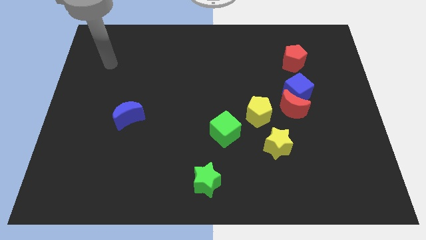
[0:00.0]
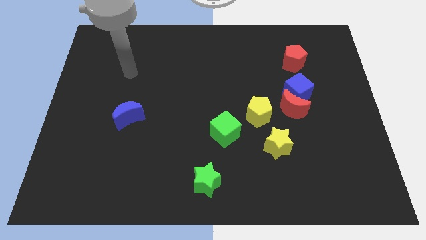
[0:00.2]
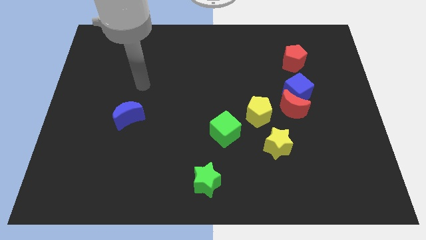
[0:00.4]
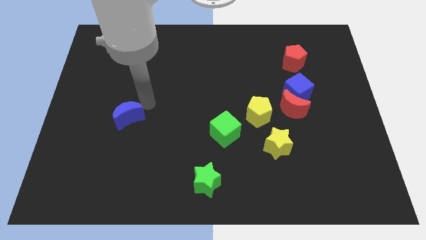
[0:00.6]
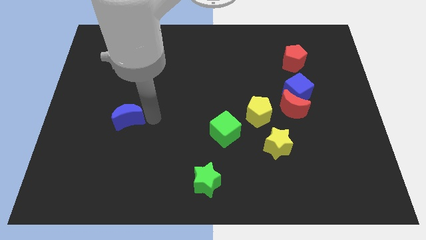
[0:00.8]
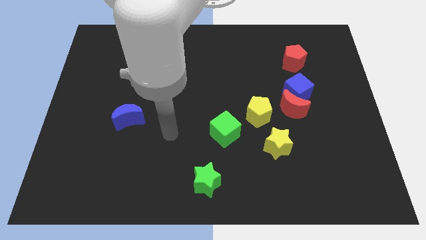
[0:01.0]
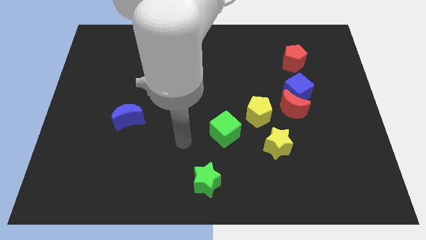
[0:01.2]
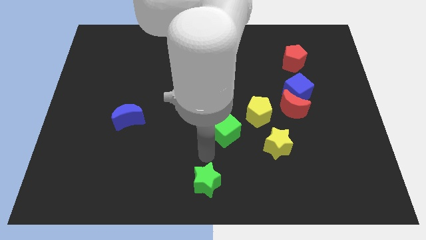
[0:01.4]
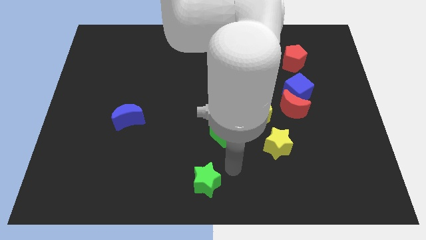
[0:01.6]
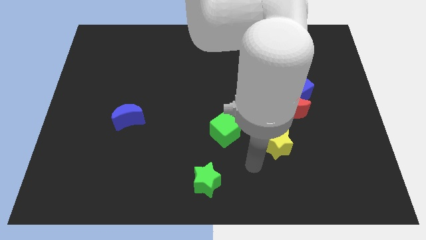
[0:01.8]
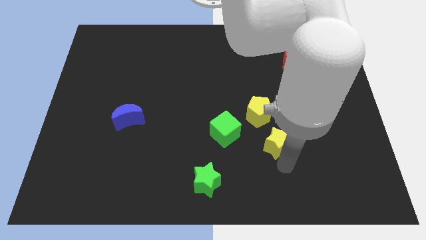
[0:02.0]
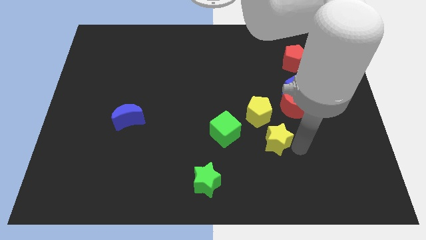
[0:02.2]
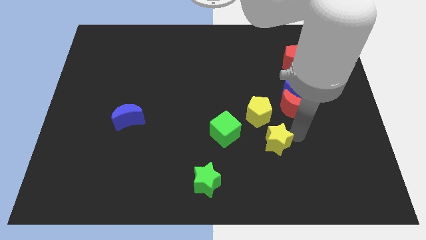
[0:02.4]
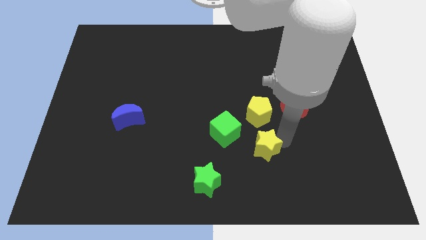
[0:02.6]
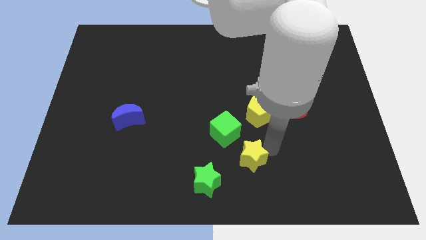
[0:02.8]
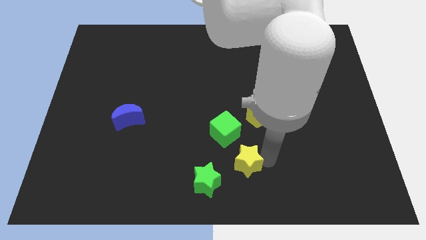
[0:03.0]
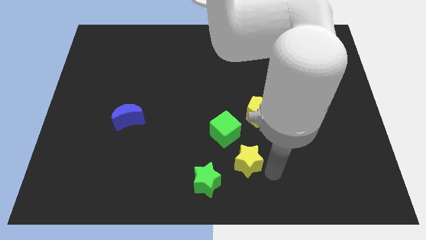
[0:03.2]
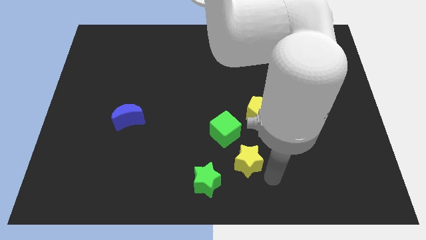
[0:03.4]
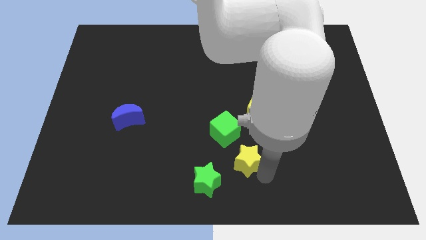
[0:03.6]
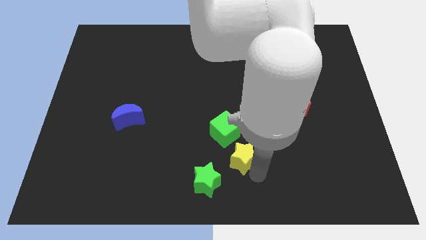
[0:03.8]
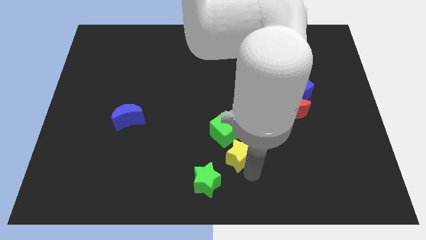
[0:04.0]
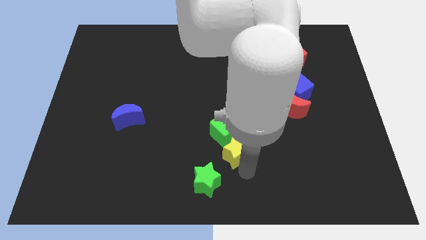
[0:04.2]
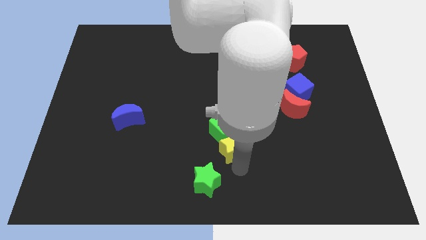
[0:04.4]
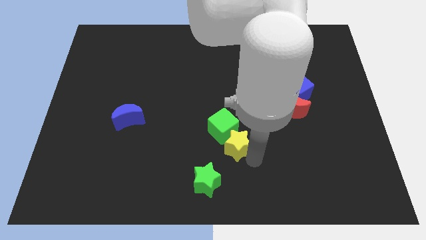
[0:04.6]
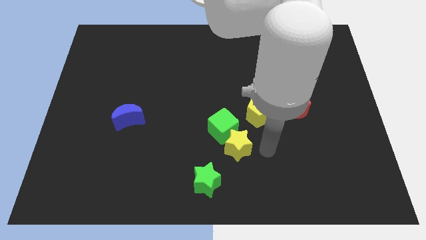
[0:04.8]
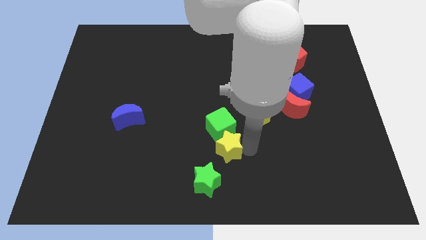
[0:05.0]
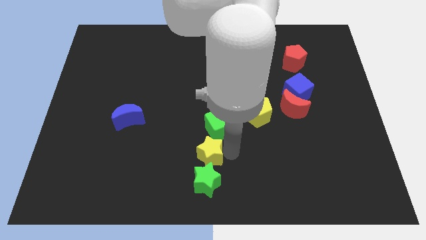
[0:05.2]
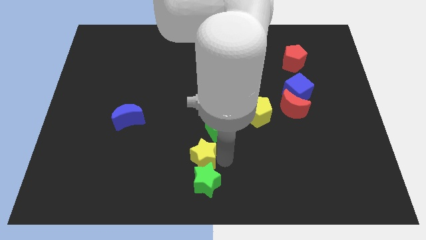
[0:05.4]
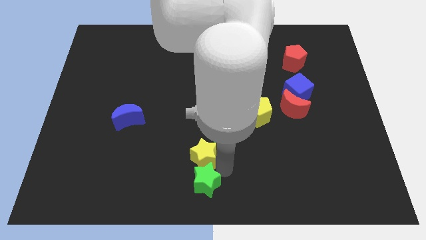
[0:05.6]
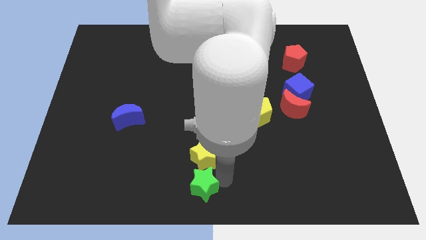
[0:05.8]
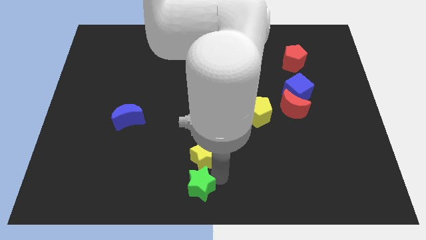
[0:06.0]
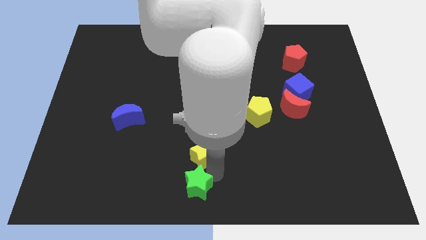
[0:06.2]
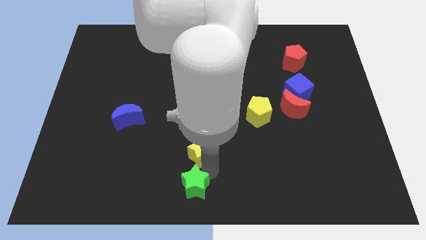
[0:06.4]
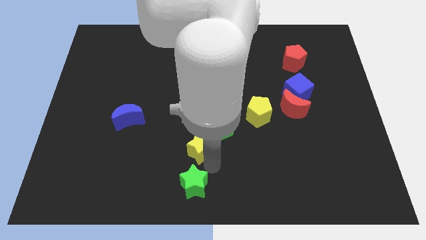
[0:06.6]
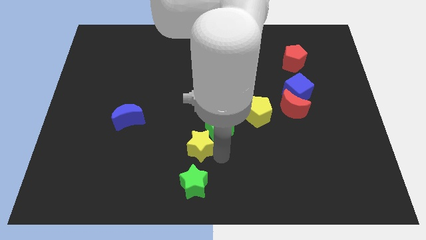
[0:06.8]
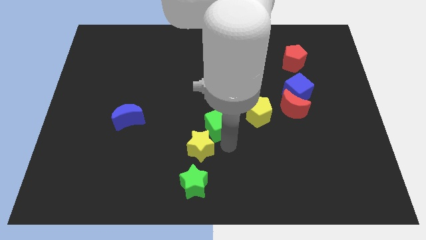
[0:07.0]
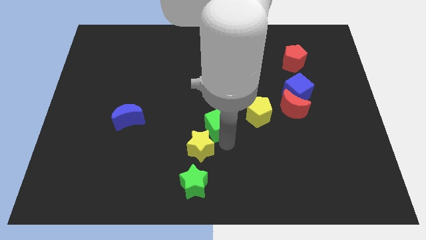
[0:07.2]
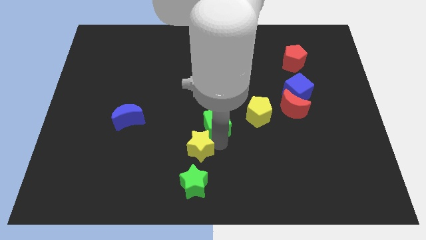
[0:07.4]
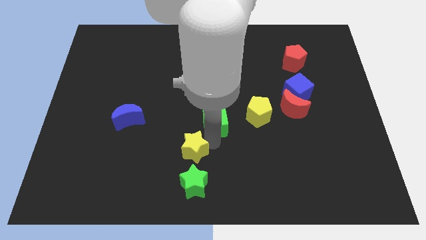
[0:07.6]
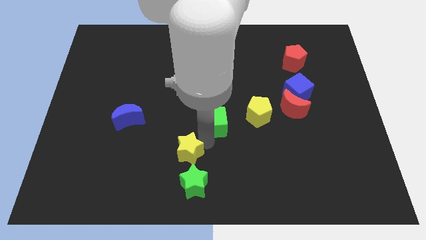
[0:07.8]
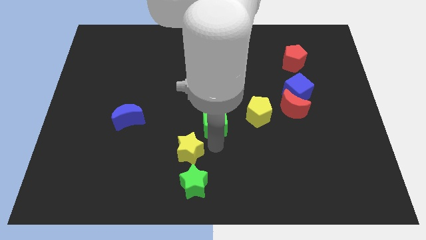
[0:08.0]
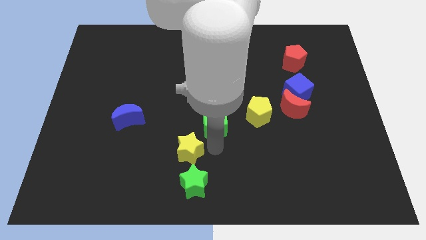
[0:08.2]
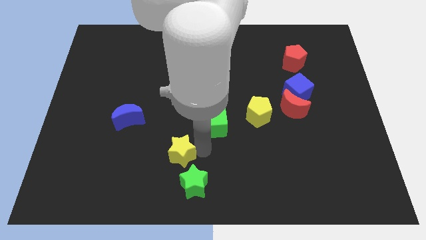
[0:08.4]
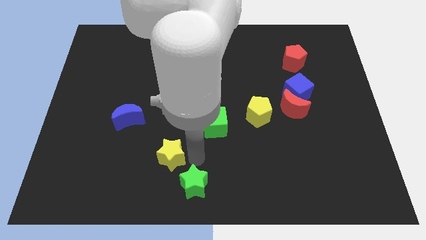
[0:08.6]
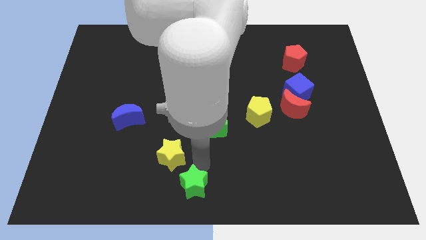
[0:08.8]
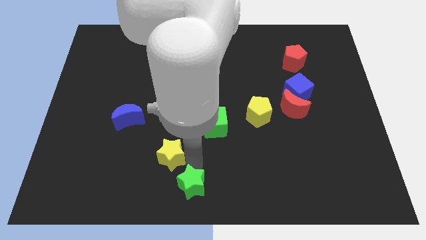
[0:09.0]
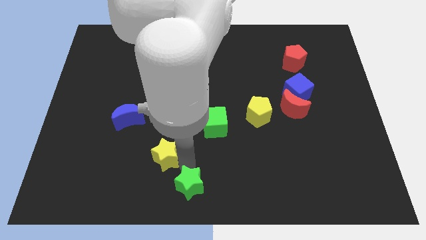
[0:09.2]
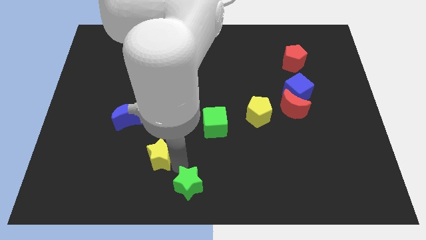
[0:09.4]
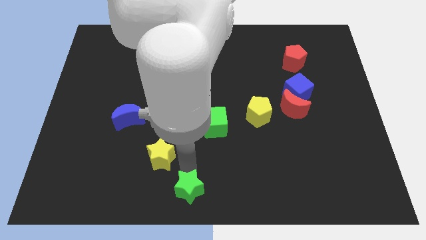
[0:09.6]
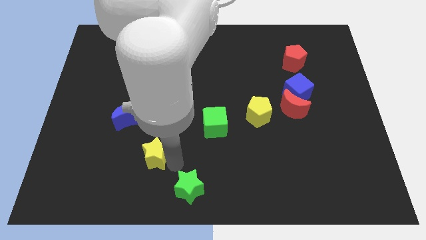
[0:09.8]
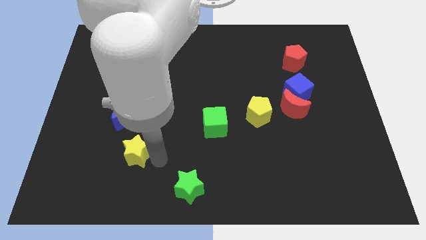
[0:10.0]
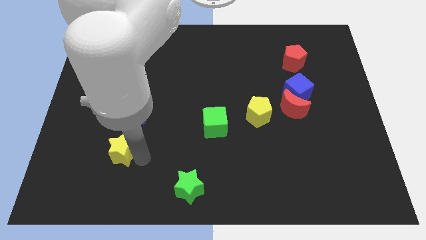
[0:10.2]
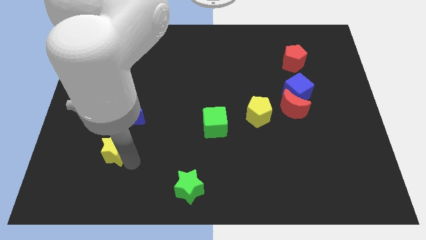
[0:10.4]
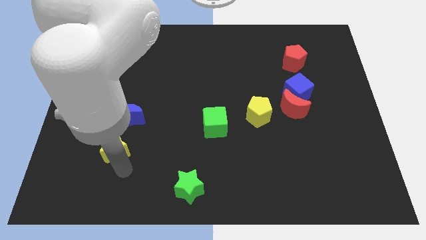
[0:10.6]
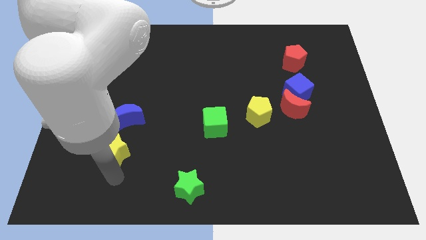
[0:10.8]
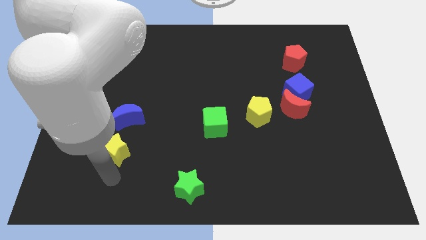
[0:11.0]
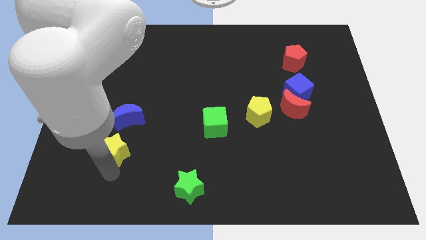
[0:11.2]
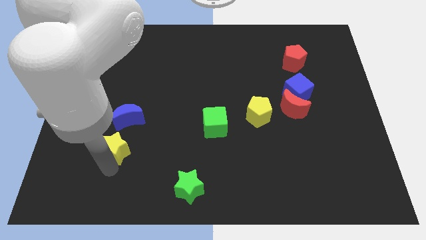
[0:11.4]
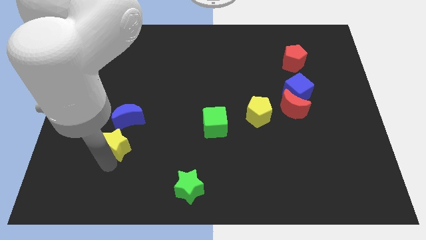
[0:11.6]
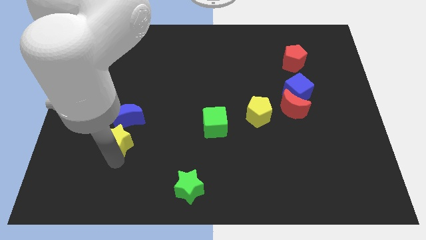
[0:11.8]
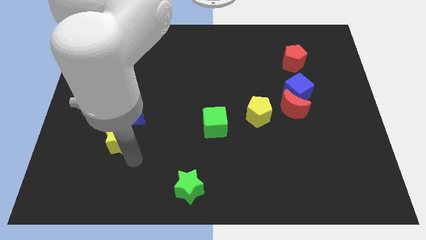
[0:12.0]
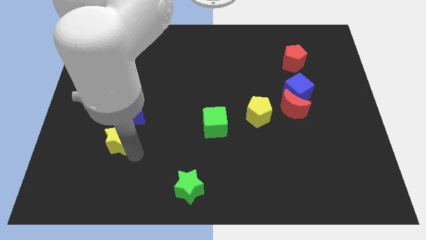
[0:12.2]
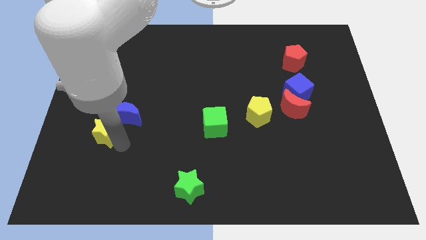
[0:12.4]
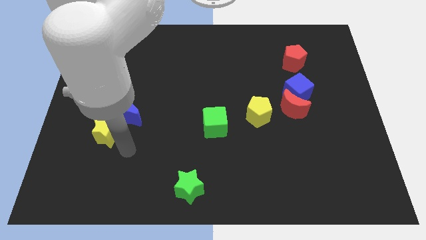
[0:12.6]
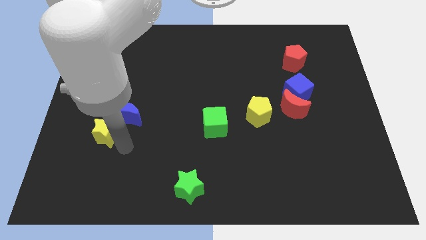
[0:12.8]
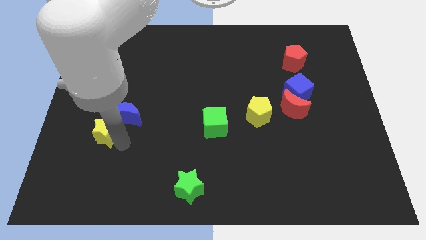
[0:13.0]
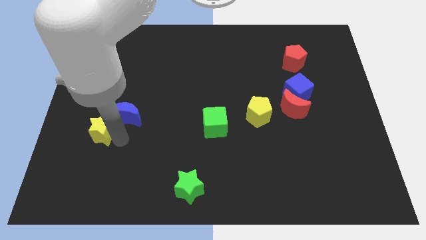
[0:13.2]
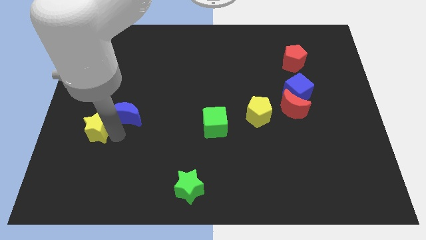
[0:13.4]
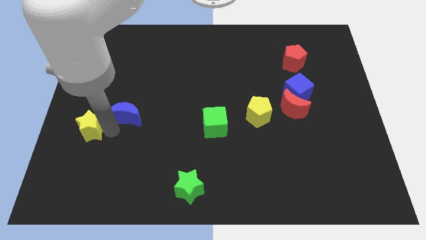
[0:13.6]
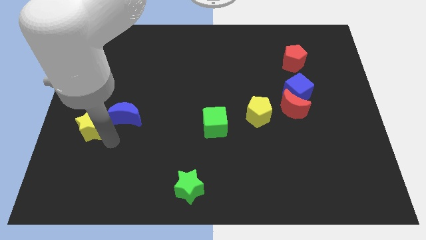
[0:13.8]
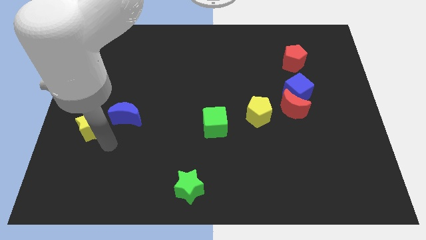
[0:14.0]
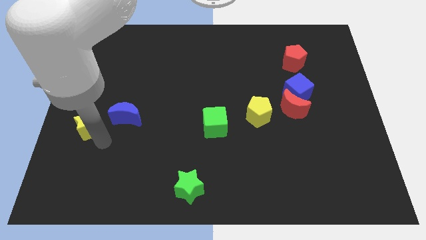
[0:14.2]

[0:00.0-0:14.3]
move the yellow star to the center left
